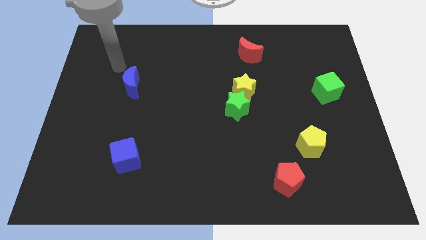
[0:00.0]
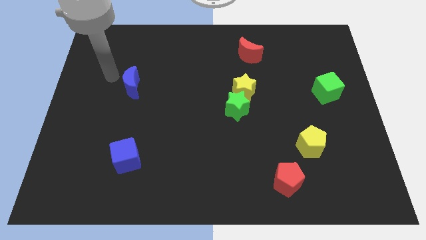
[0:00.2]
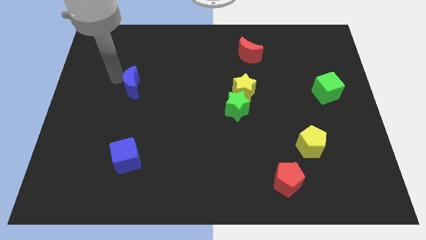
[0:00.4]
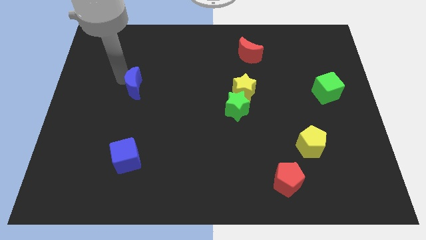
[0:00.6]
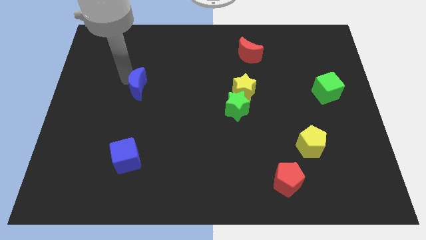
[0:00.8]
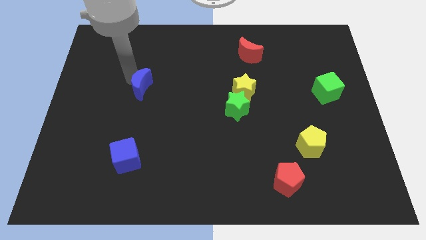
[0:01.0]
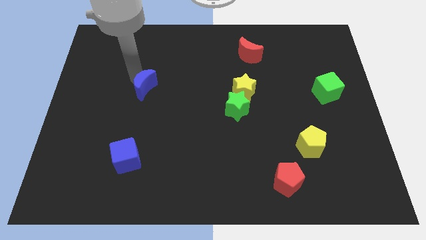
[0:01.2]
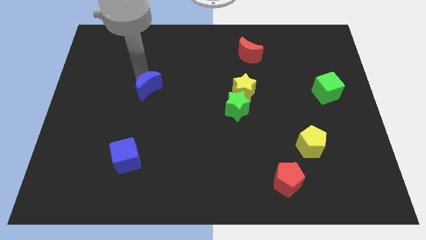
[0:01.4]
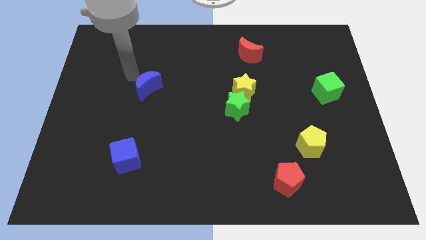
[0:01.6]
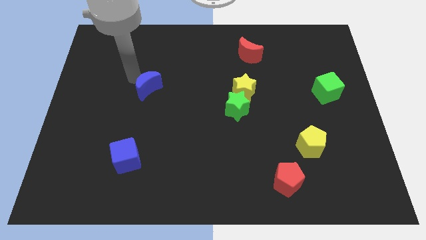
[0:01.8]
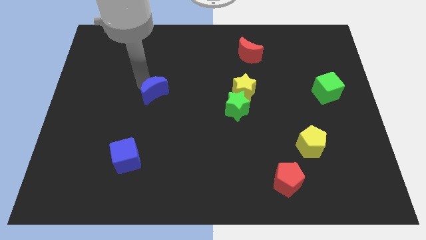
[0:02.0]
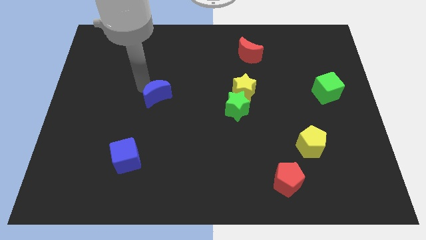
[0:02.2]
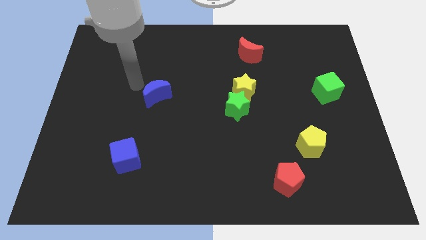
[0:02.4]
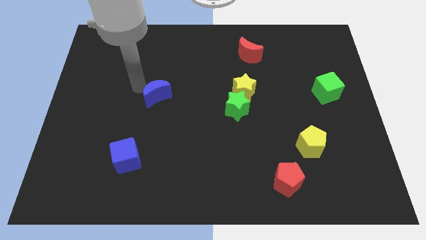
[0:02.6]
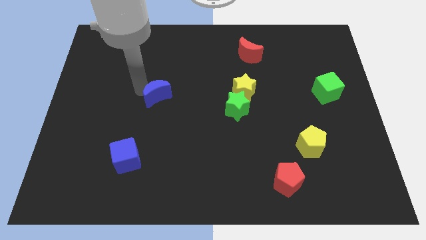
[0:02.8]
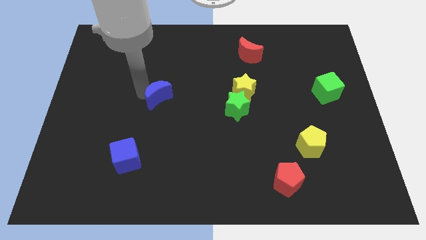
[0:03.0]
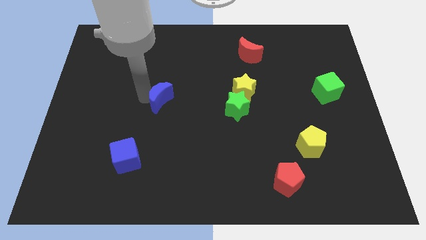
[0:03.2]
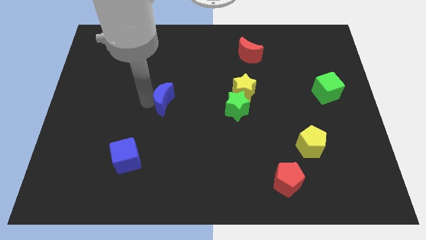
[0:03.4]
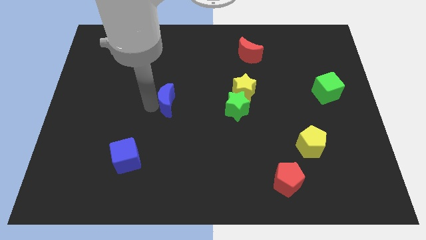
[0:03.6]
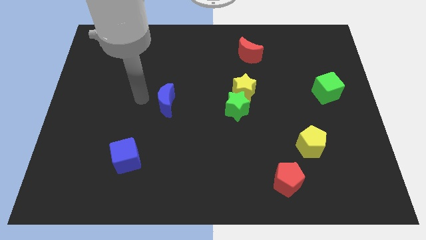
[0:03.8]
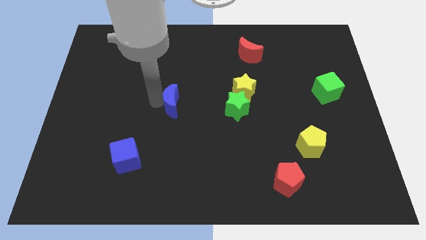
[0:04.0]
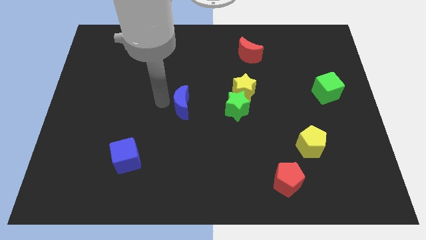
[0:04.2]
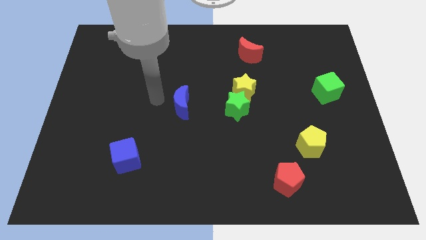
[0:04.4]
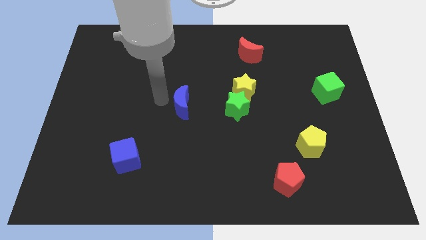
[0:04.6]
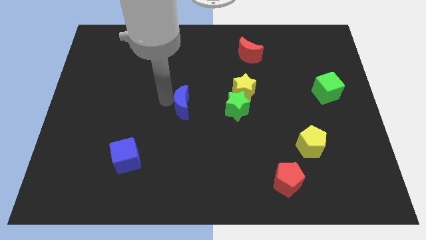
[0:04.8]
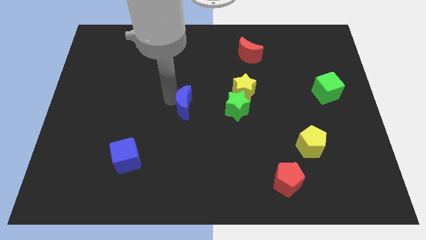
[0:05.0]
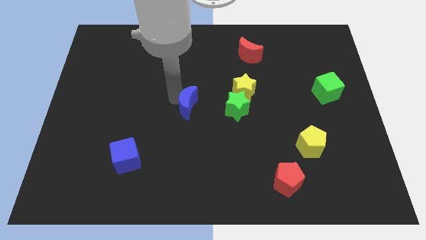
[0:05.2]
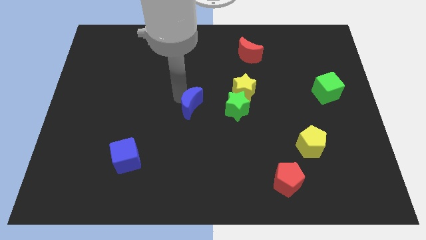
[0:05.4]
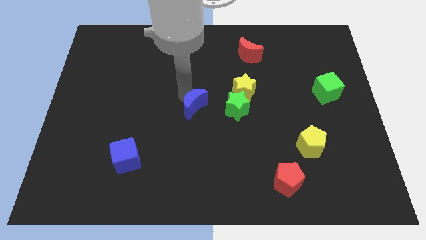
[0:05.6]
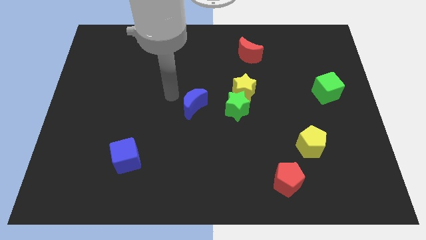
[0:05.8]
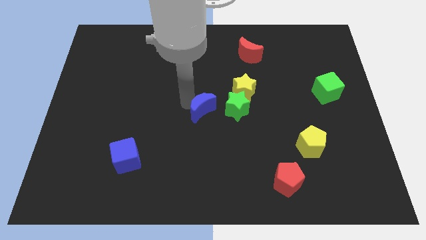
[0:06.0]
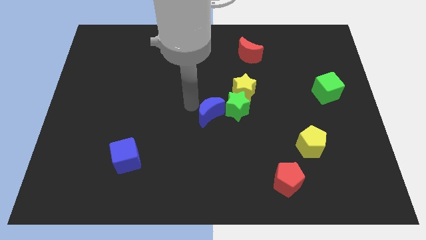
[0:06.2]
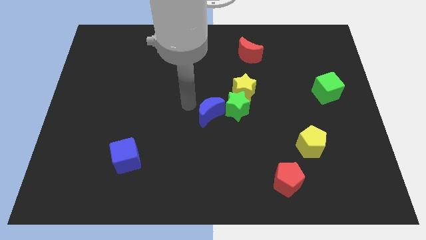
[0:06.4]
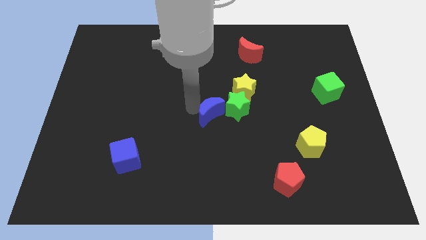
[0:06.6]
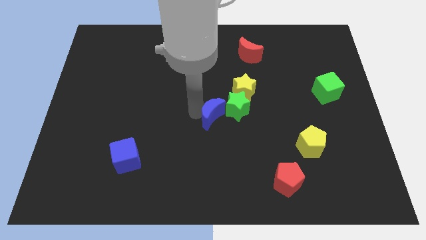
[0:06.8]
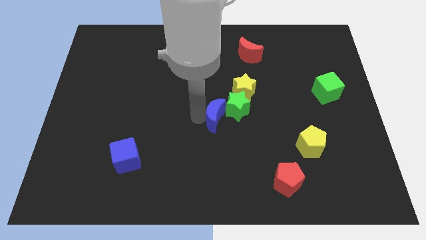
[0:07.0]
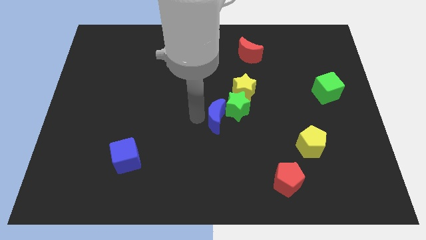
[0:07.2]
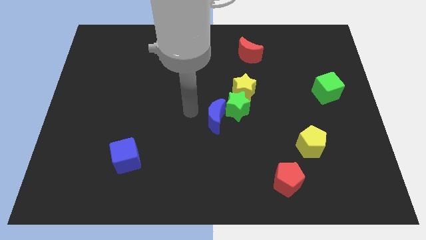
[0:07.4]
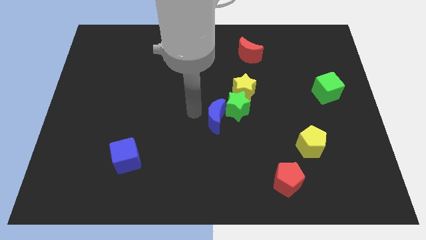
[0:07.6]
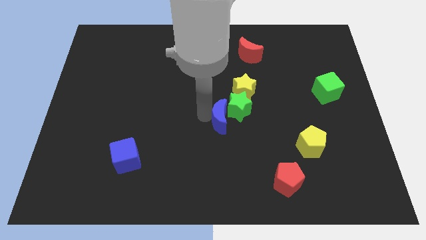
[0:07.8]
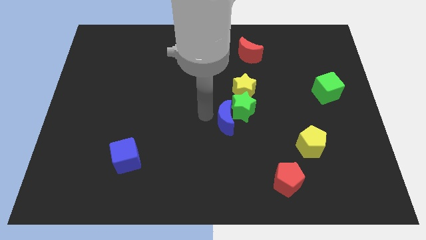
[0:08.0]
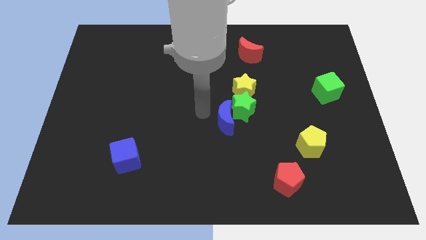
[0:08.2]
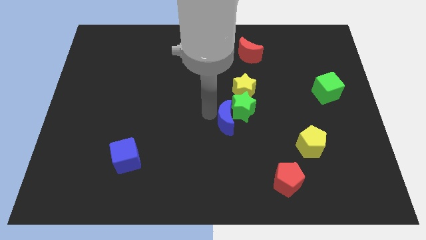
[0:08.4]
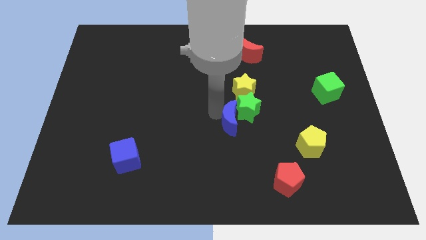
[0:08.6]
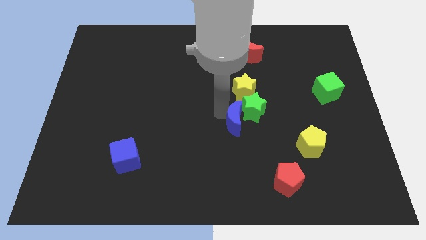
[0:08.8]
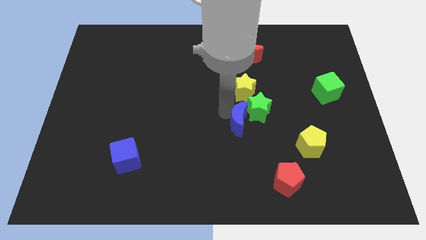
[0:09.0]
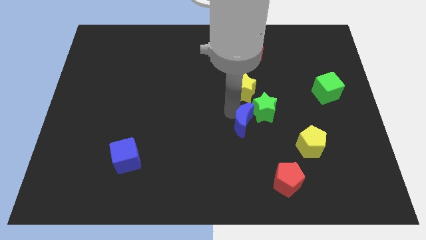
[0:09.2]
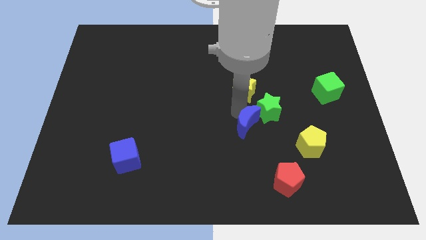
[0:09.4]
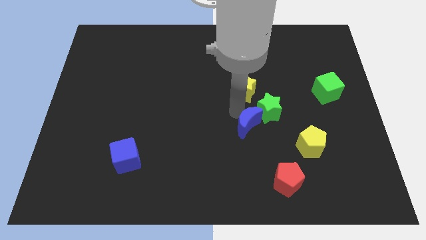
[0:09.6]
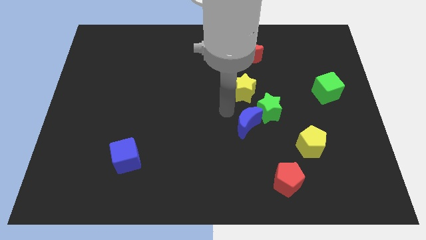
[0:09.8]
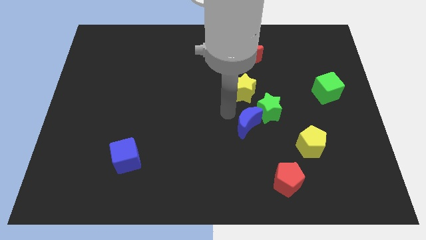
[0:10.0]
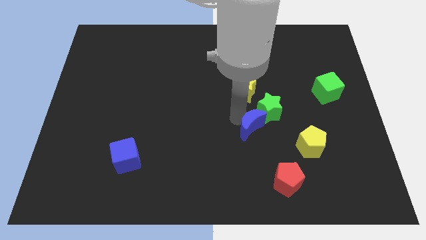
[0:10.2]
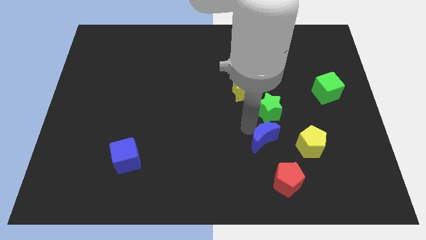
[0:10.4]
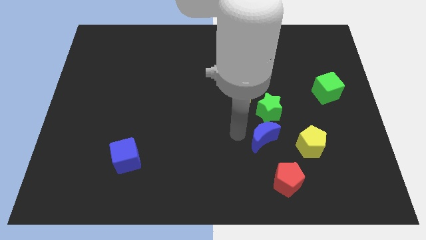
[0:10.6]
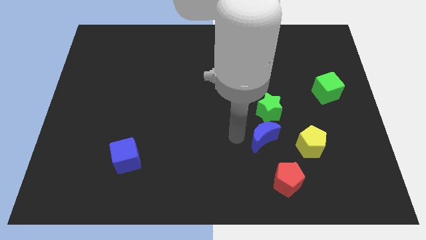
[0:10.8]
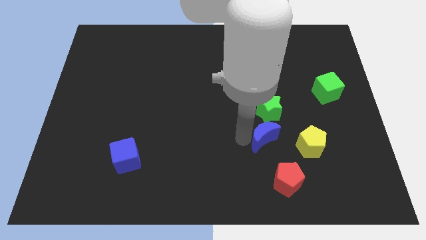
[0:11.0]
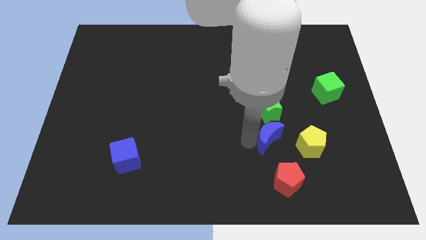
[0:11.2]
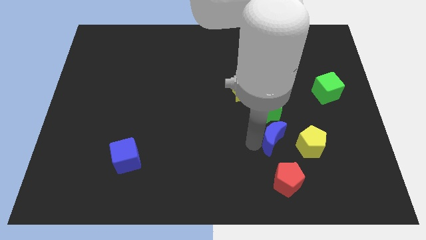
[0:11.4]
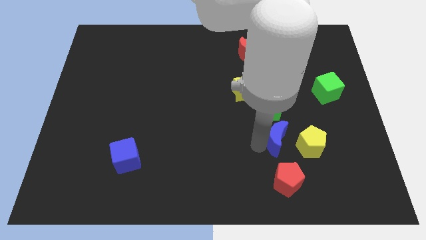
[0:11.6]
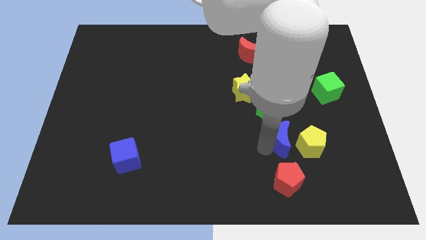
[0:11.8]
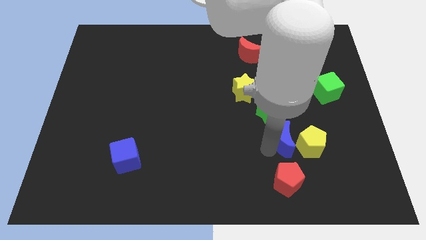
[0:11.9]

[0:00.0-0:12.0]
put the blue moon towards the yellow pentagon

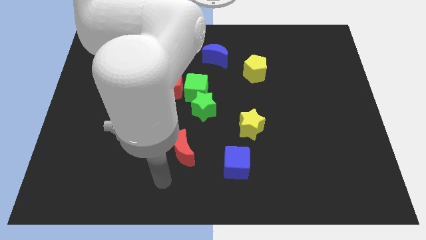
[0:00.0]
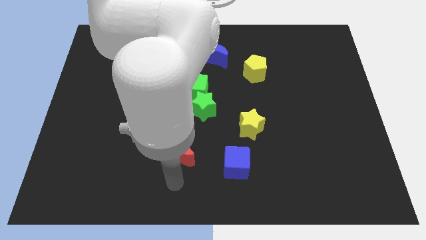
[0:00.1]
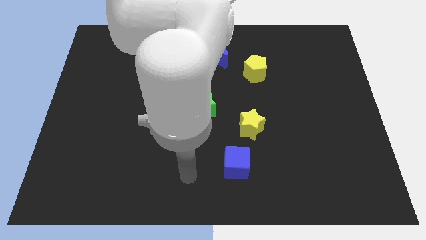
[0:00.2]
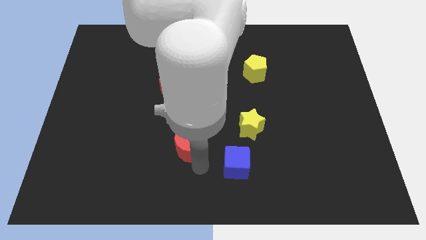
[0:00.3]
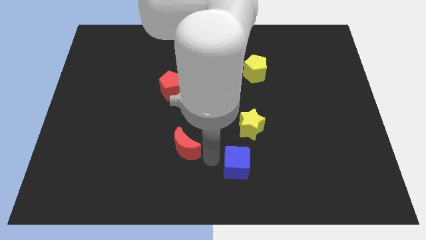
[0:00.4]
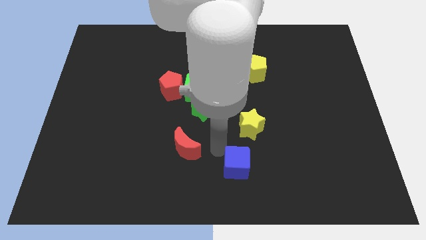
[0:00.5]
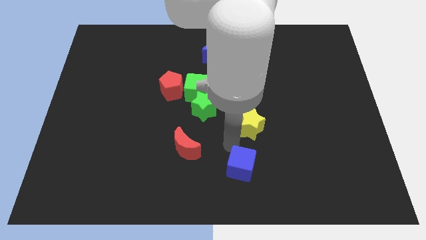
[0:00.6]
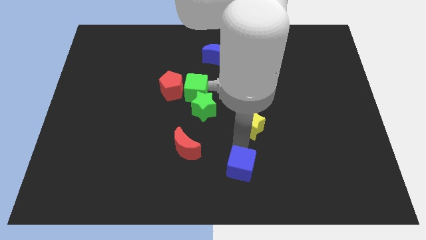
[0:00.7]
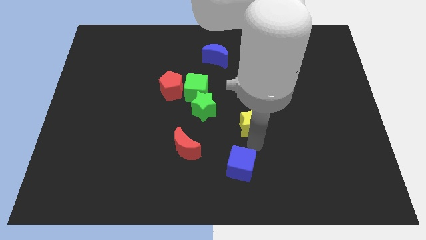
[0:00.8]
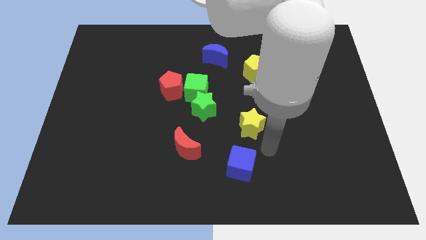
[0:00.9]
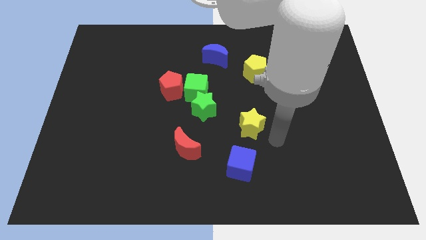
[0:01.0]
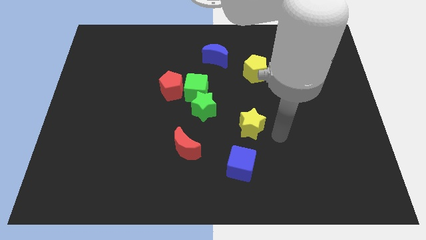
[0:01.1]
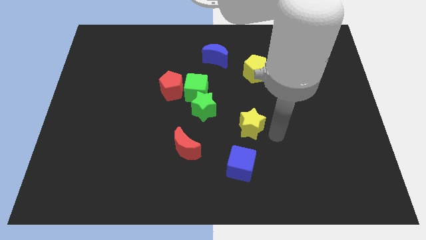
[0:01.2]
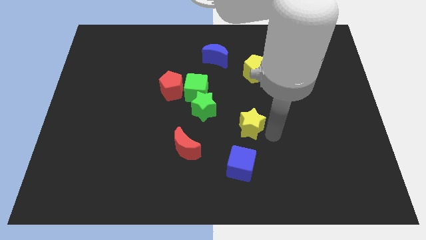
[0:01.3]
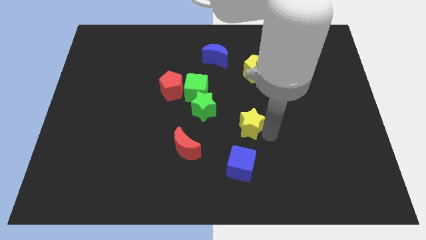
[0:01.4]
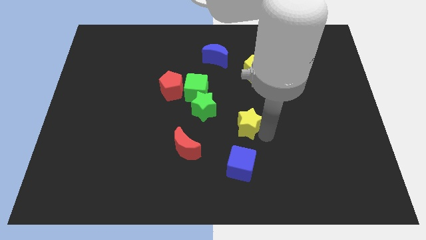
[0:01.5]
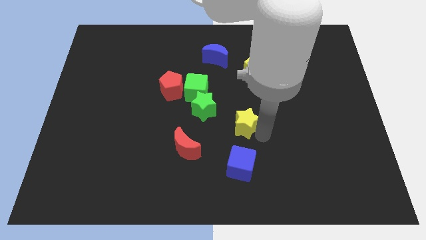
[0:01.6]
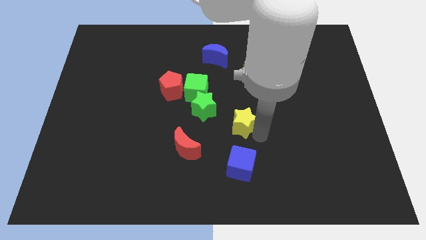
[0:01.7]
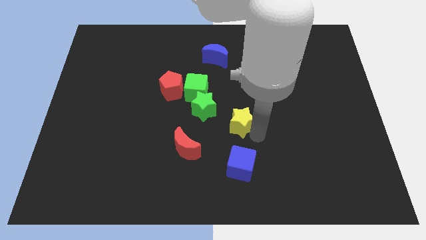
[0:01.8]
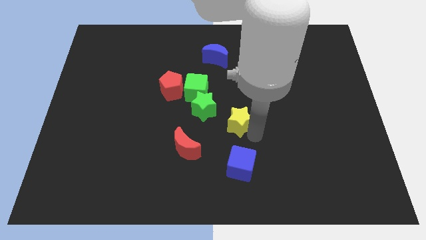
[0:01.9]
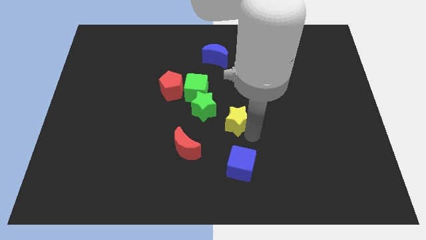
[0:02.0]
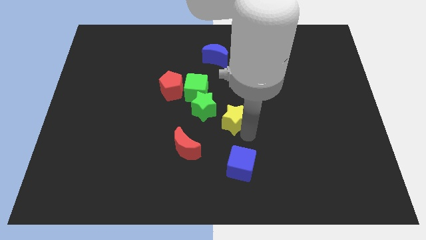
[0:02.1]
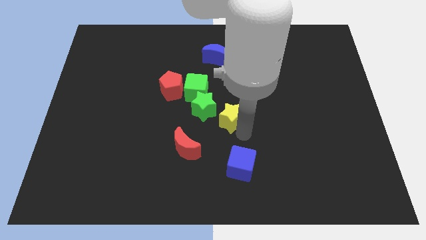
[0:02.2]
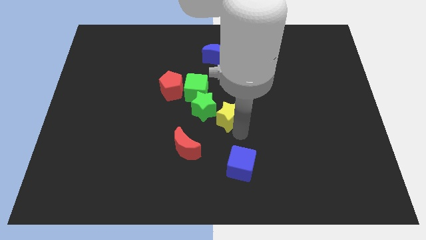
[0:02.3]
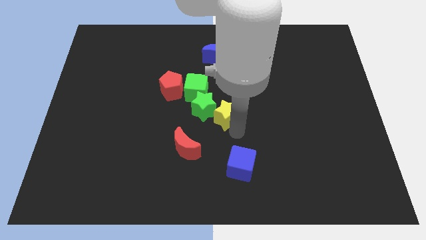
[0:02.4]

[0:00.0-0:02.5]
push the yellow star towards the green star
